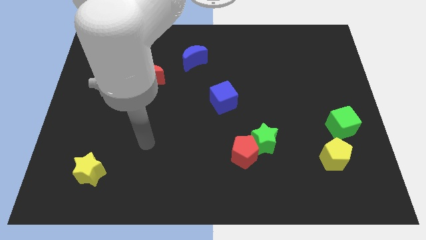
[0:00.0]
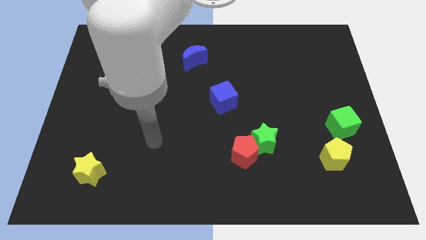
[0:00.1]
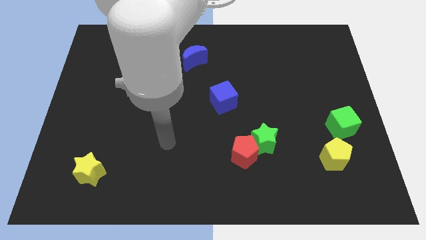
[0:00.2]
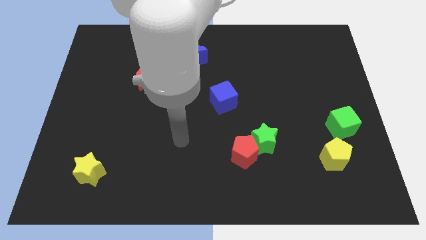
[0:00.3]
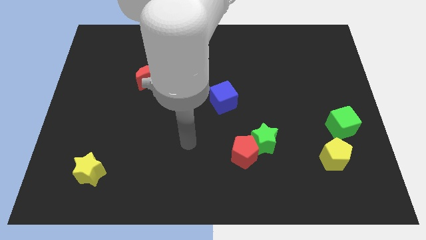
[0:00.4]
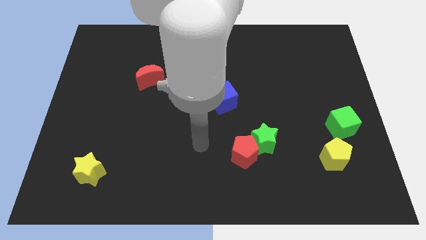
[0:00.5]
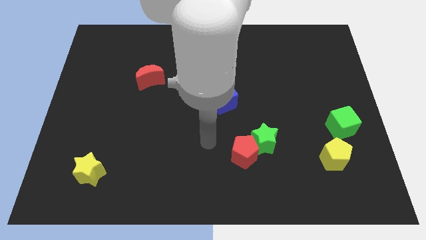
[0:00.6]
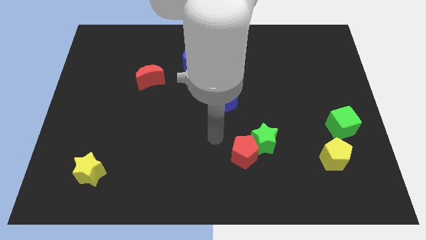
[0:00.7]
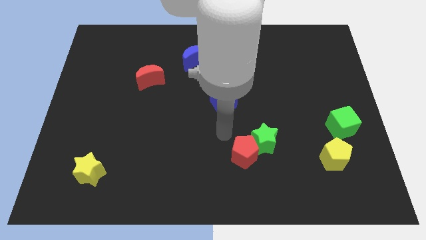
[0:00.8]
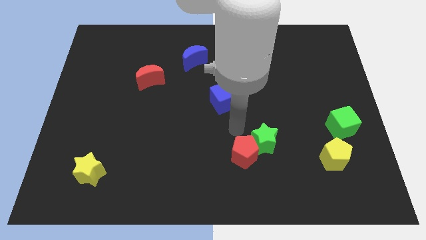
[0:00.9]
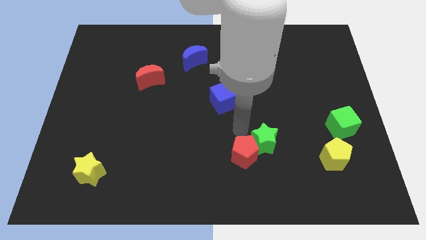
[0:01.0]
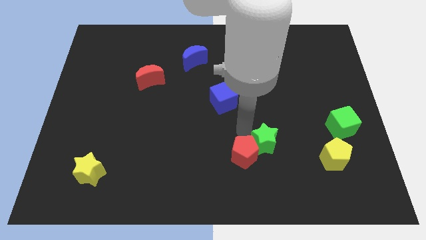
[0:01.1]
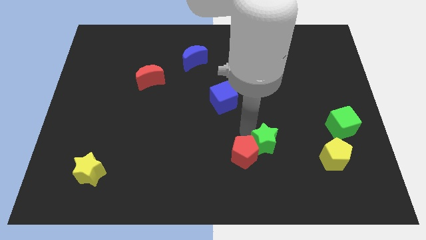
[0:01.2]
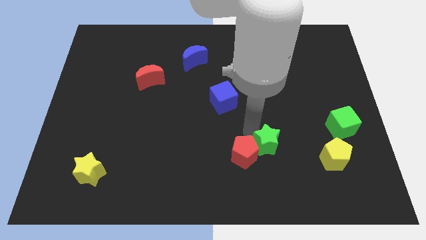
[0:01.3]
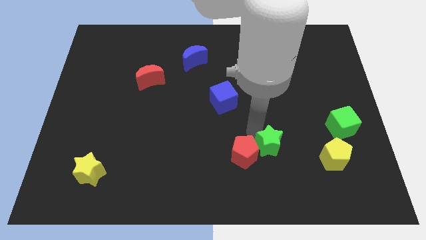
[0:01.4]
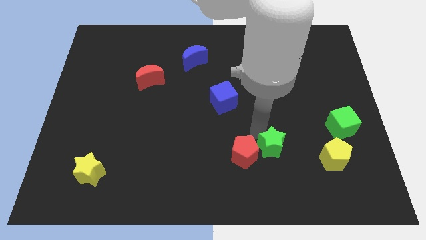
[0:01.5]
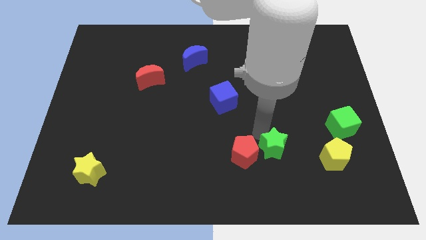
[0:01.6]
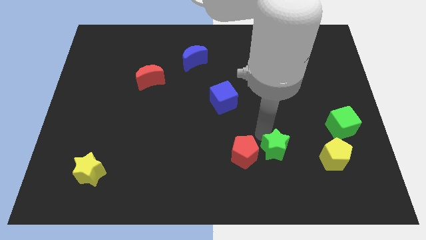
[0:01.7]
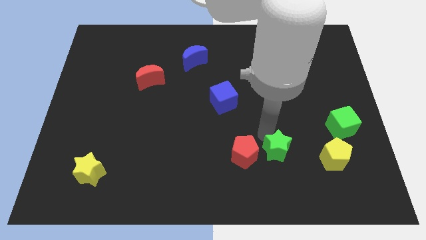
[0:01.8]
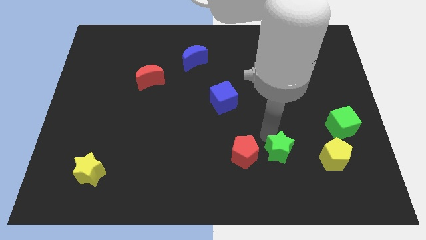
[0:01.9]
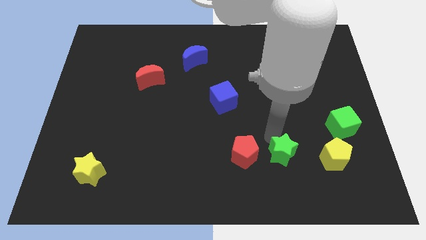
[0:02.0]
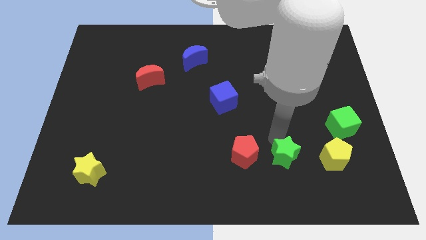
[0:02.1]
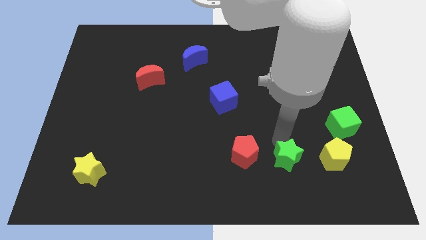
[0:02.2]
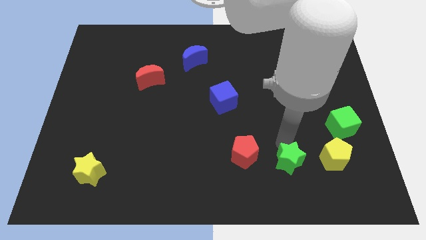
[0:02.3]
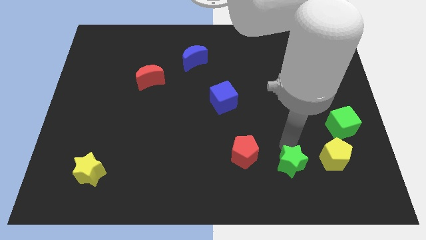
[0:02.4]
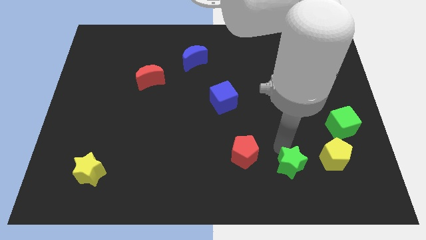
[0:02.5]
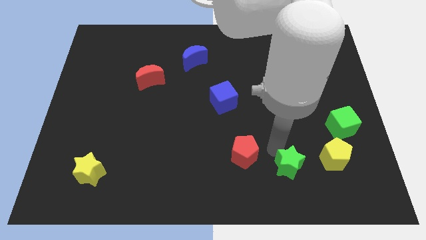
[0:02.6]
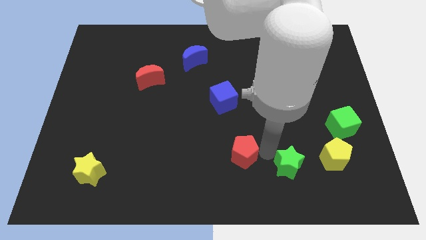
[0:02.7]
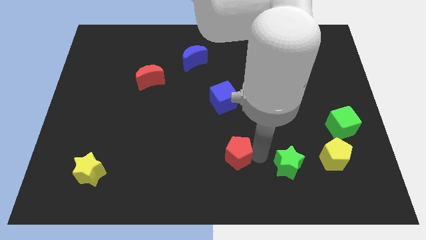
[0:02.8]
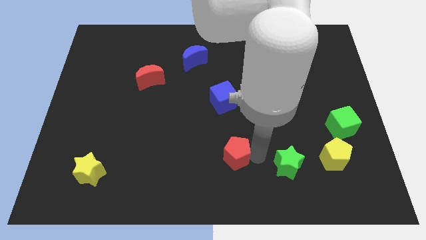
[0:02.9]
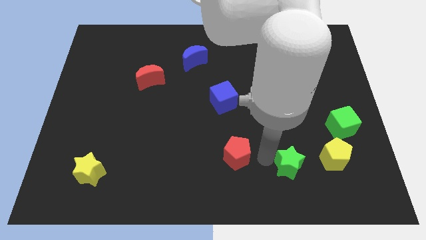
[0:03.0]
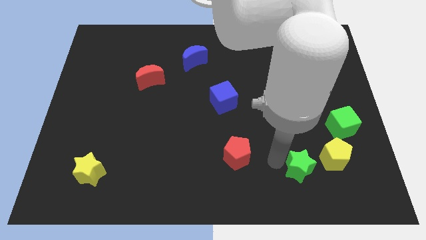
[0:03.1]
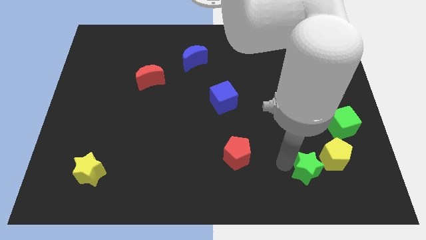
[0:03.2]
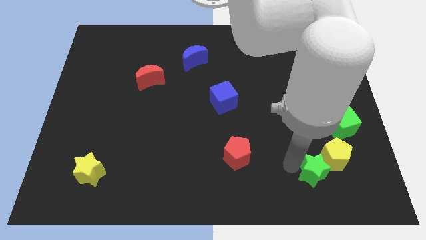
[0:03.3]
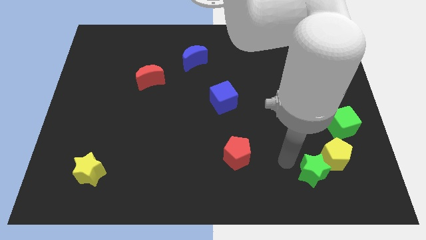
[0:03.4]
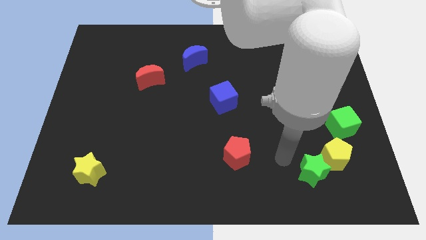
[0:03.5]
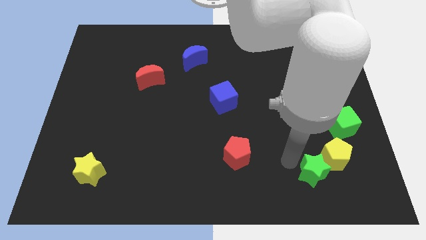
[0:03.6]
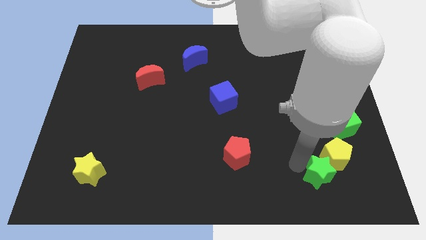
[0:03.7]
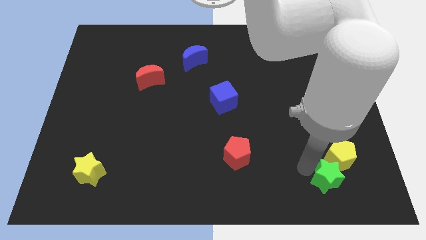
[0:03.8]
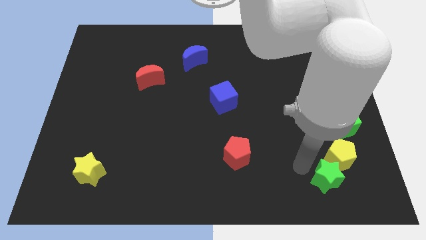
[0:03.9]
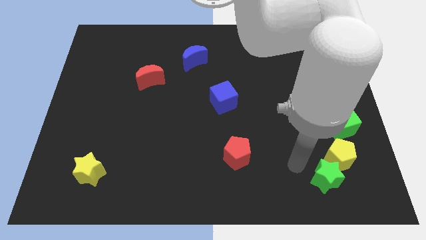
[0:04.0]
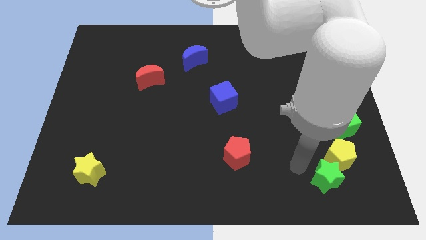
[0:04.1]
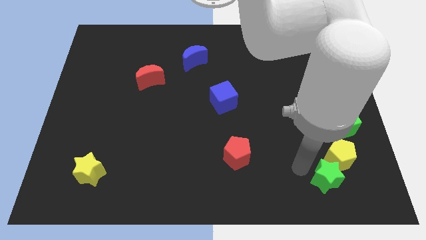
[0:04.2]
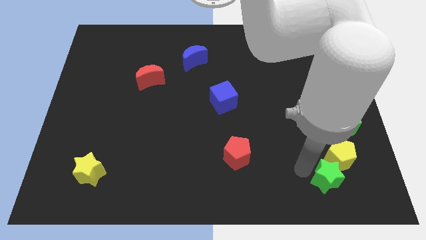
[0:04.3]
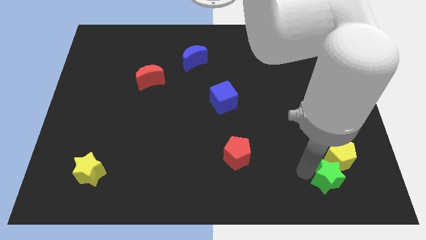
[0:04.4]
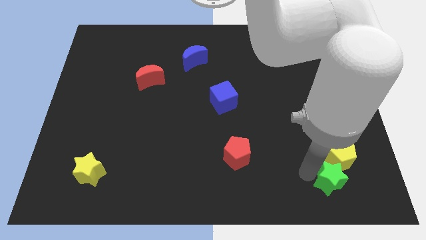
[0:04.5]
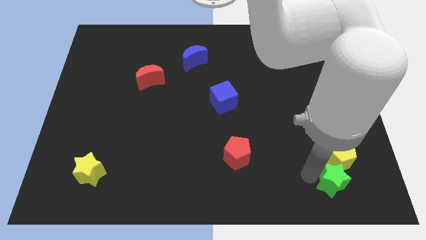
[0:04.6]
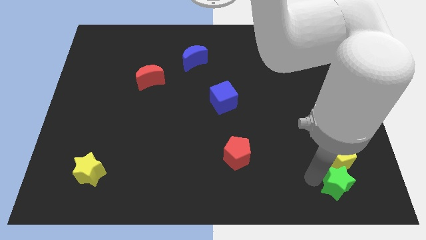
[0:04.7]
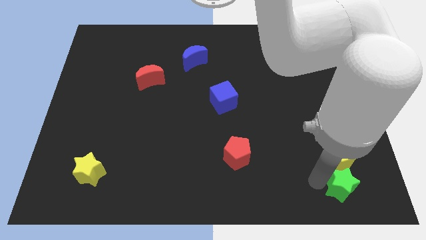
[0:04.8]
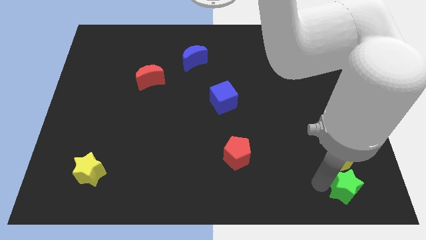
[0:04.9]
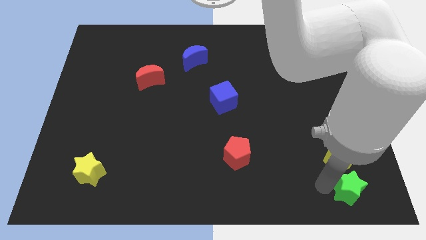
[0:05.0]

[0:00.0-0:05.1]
move the green star to the lower right corner

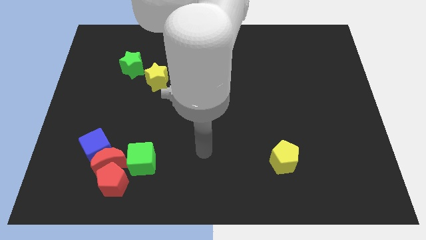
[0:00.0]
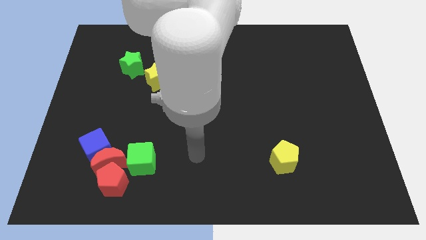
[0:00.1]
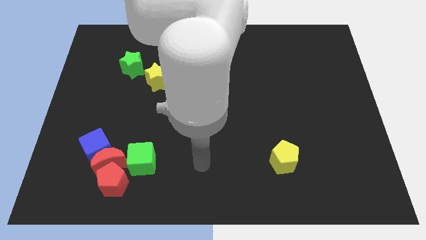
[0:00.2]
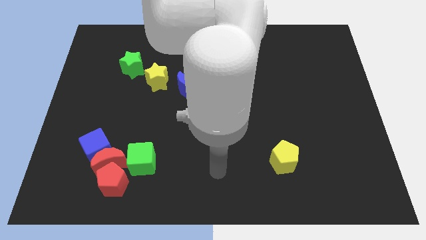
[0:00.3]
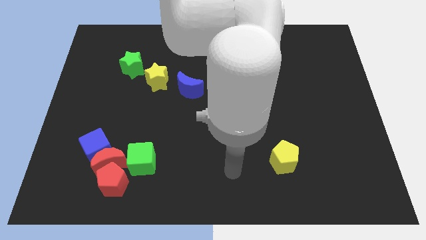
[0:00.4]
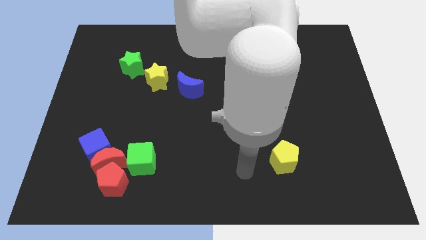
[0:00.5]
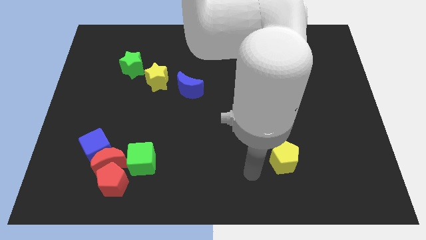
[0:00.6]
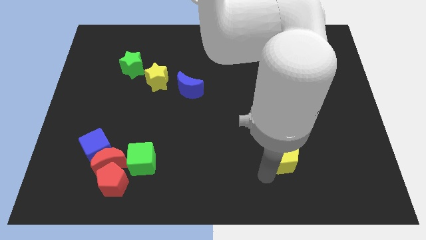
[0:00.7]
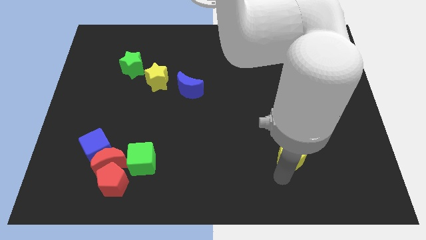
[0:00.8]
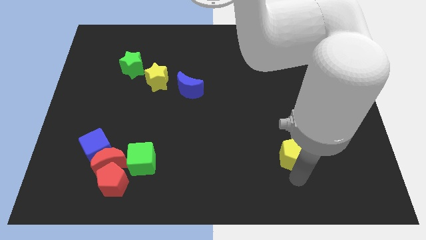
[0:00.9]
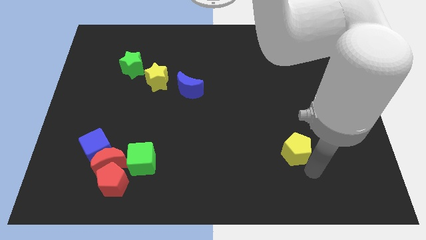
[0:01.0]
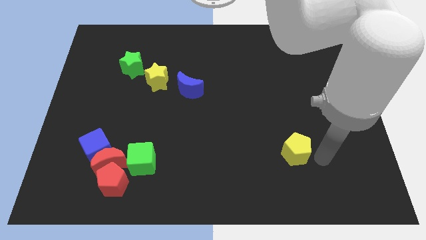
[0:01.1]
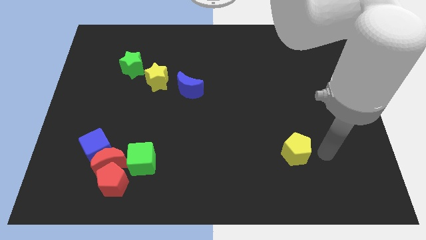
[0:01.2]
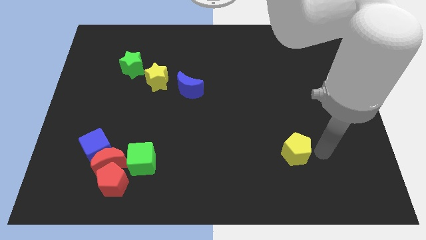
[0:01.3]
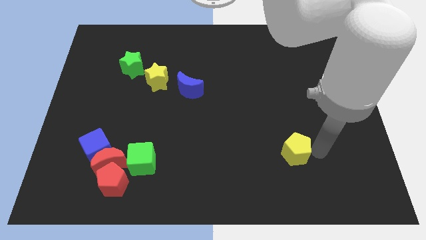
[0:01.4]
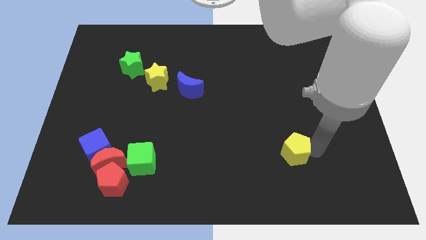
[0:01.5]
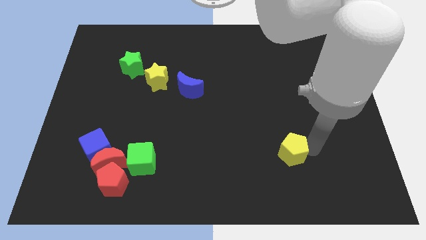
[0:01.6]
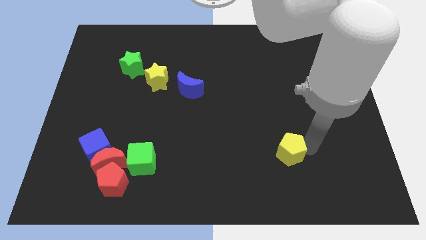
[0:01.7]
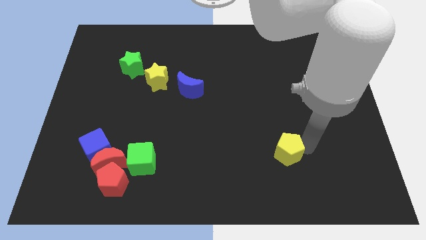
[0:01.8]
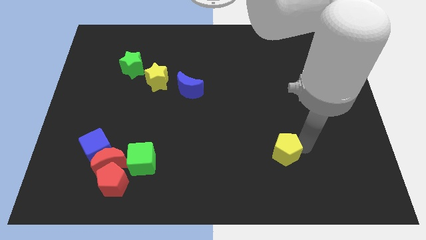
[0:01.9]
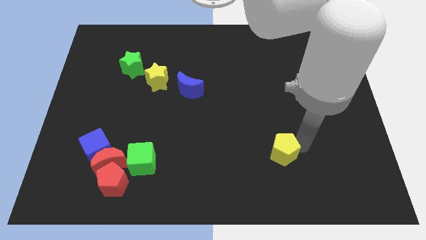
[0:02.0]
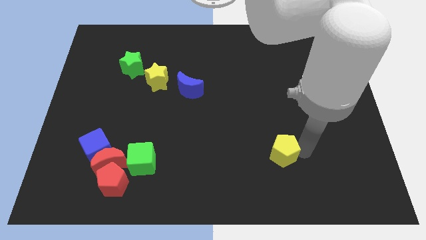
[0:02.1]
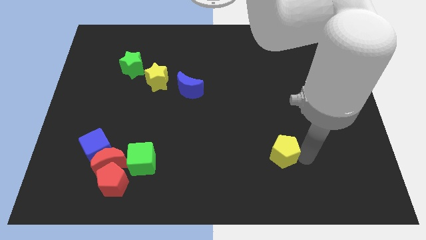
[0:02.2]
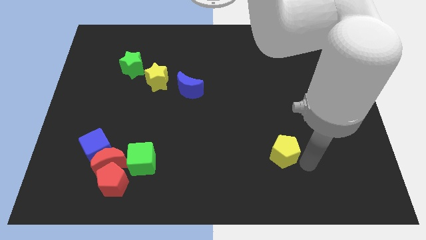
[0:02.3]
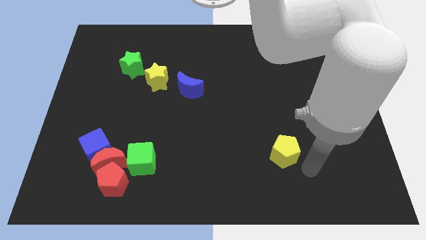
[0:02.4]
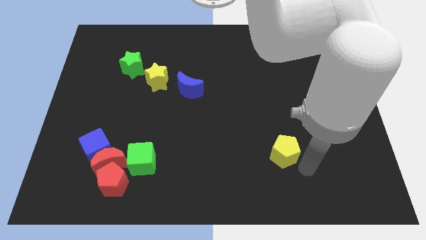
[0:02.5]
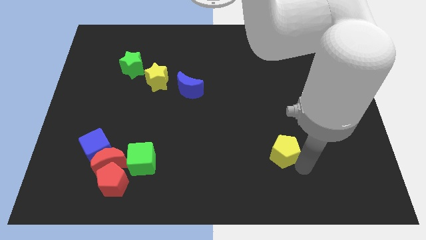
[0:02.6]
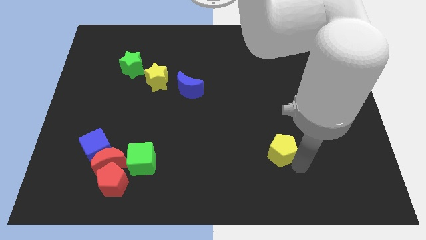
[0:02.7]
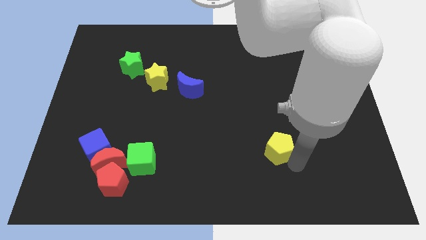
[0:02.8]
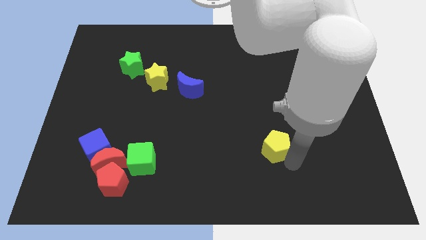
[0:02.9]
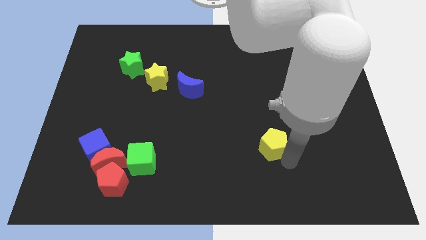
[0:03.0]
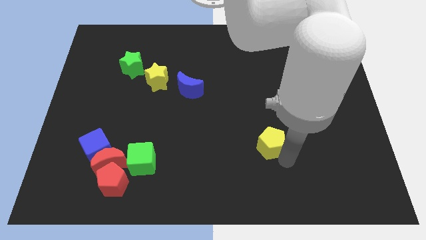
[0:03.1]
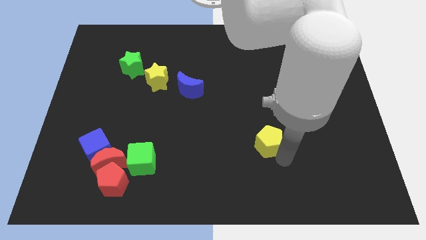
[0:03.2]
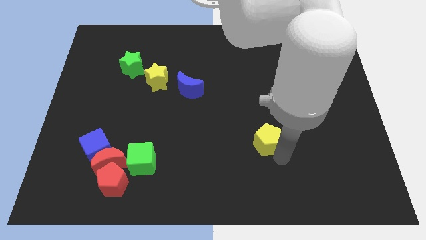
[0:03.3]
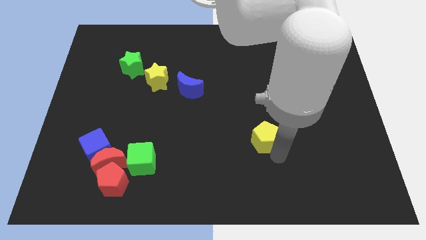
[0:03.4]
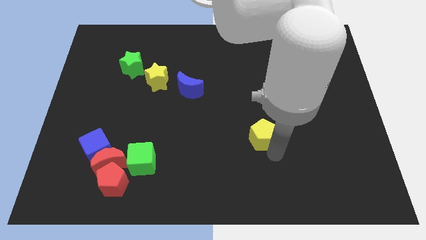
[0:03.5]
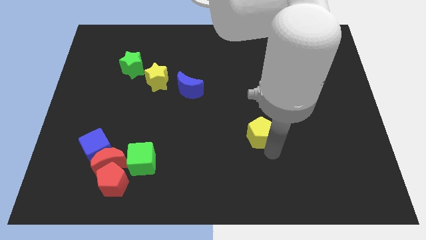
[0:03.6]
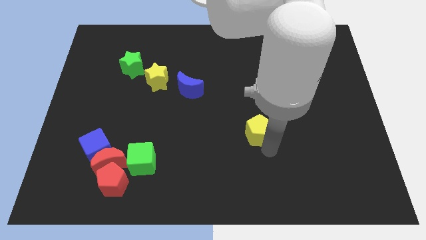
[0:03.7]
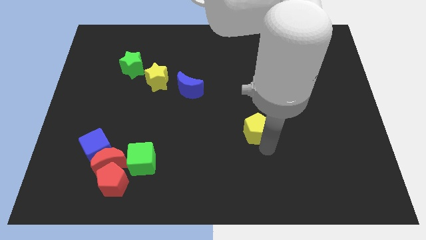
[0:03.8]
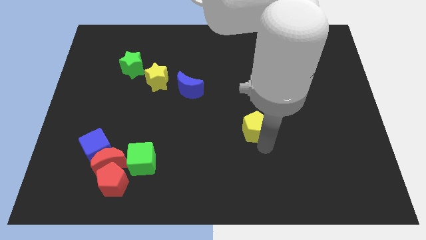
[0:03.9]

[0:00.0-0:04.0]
put the yellow pentagon to the middle of the board
